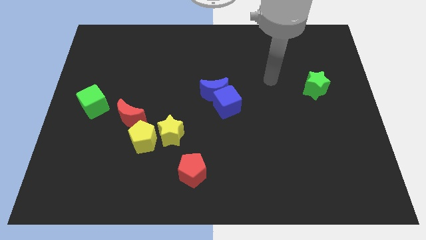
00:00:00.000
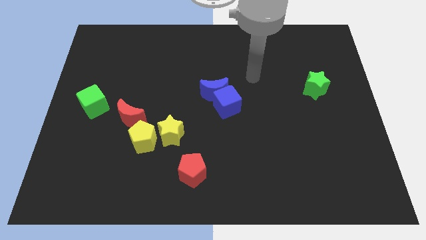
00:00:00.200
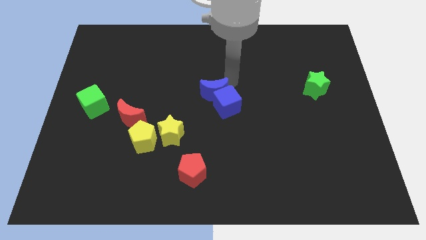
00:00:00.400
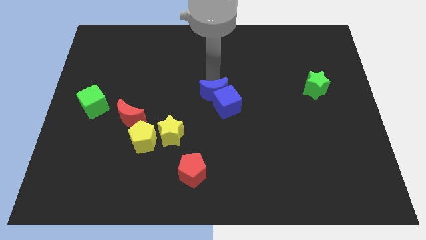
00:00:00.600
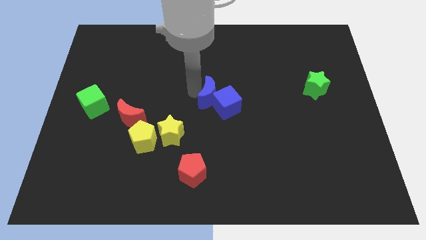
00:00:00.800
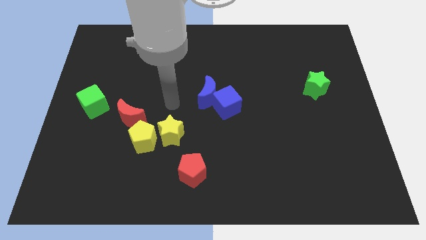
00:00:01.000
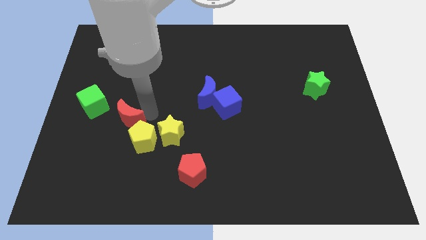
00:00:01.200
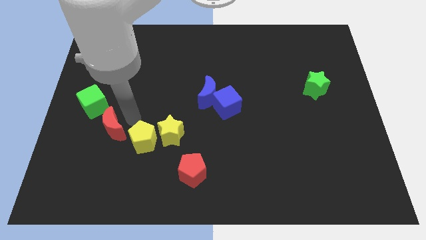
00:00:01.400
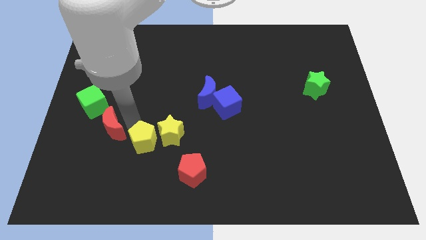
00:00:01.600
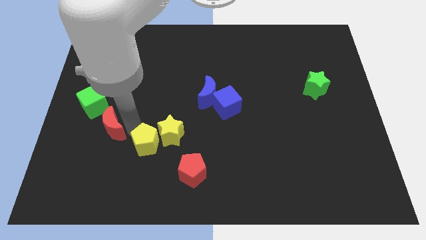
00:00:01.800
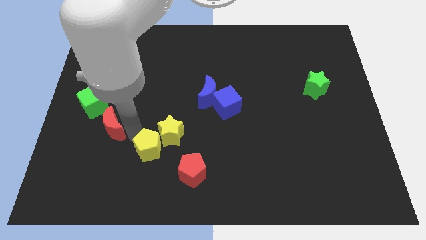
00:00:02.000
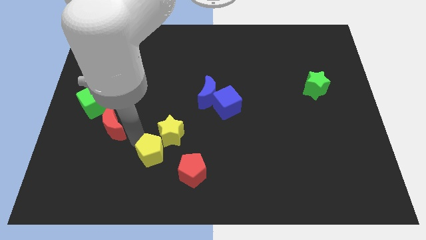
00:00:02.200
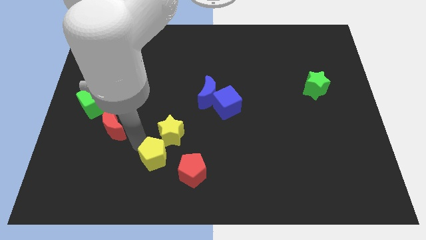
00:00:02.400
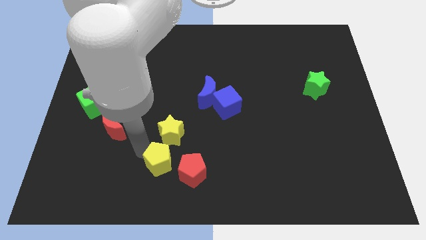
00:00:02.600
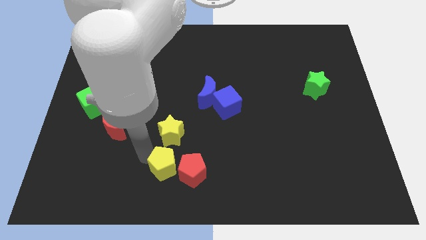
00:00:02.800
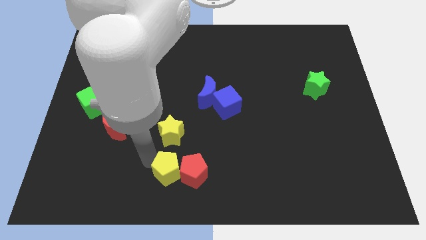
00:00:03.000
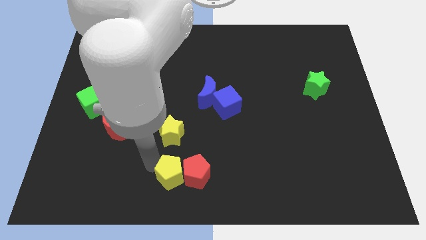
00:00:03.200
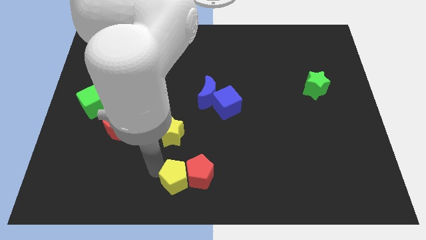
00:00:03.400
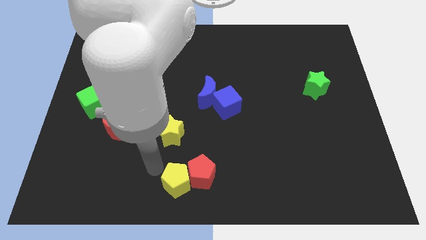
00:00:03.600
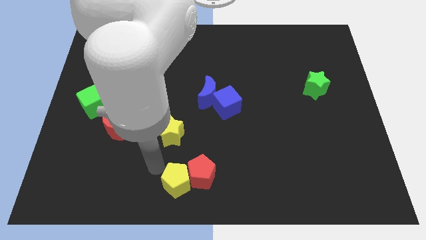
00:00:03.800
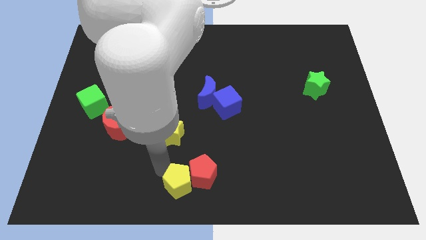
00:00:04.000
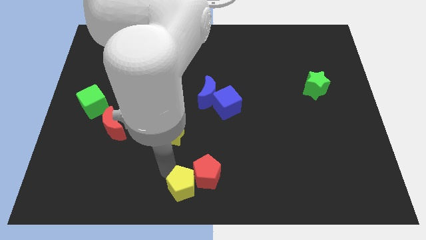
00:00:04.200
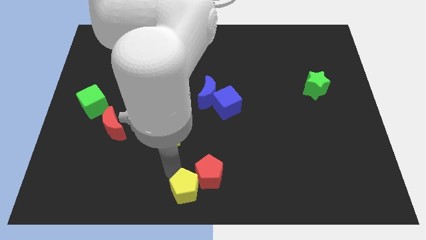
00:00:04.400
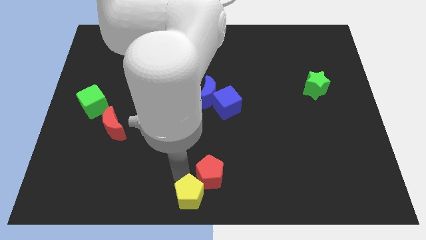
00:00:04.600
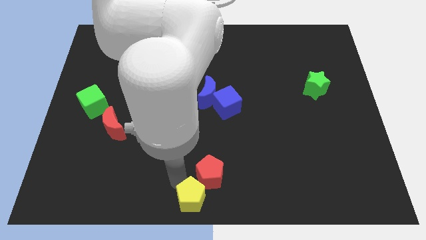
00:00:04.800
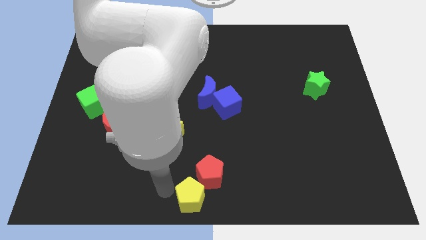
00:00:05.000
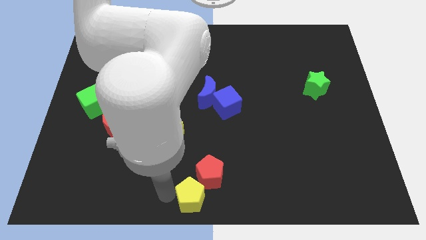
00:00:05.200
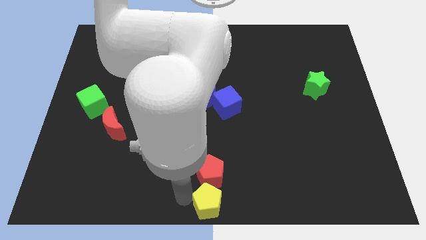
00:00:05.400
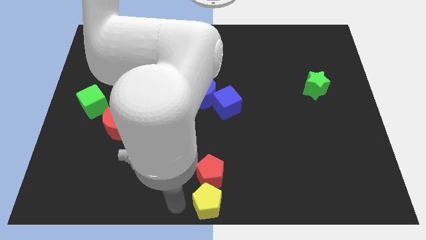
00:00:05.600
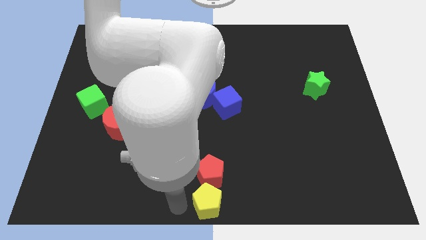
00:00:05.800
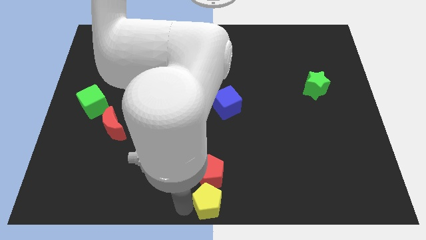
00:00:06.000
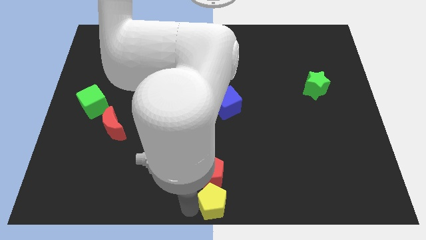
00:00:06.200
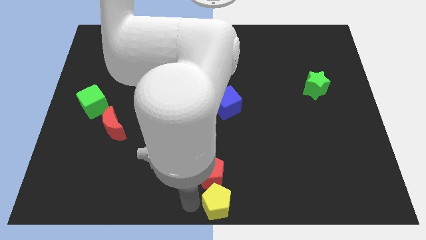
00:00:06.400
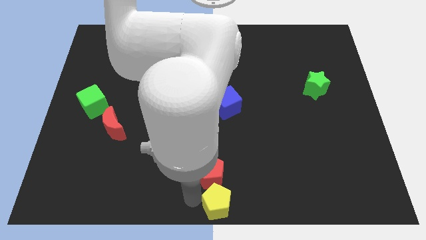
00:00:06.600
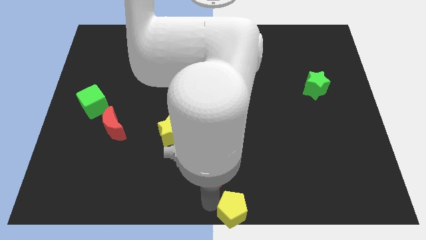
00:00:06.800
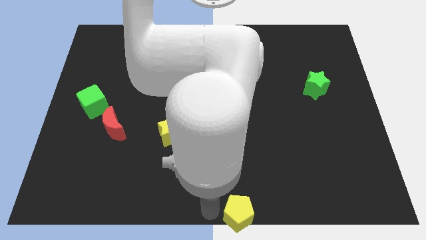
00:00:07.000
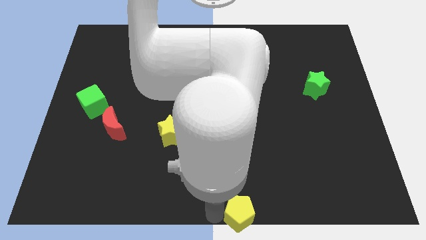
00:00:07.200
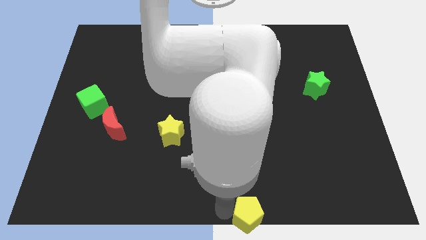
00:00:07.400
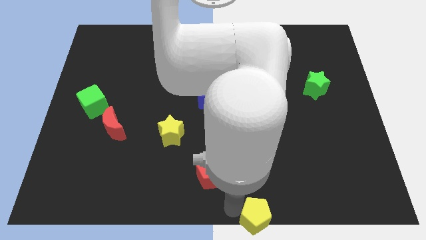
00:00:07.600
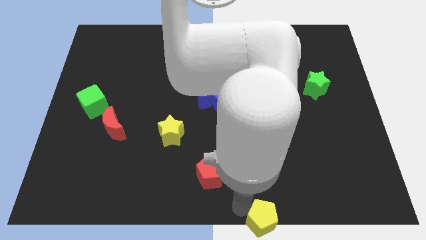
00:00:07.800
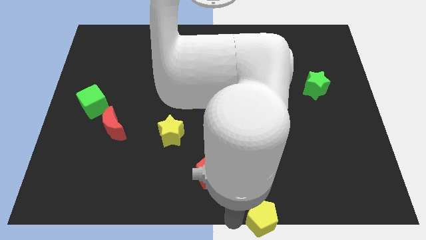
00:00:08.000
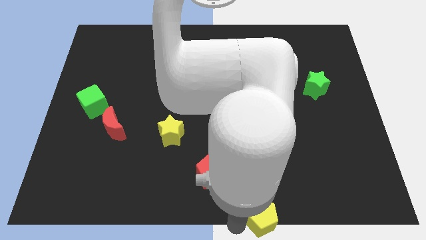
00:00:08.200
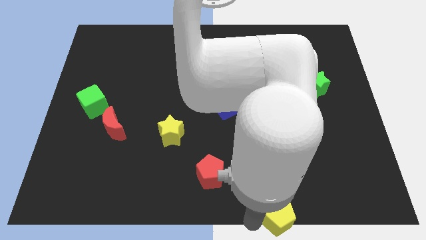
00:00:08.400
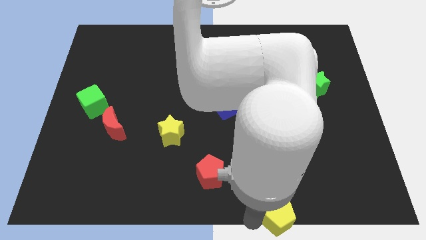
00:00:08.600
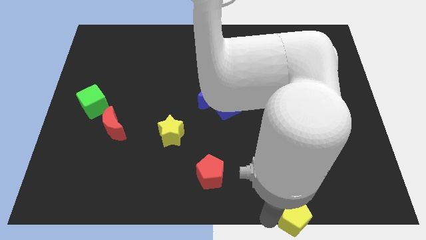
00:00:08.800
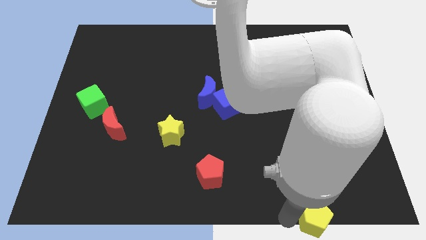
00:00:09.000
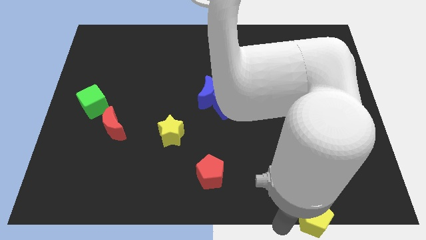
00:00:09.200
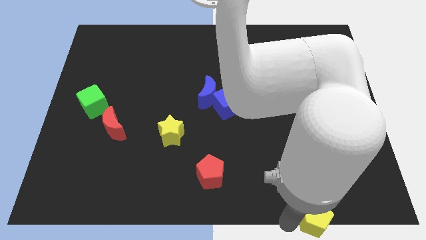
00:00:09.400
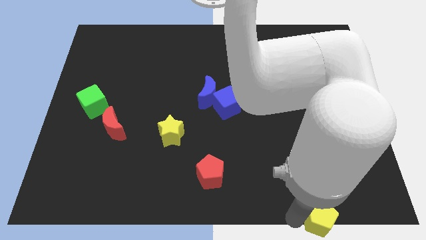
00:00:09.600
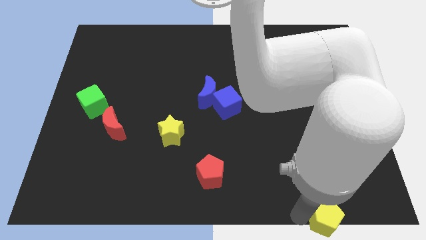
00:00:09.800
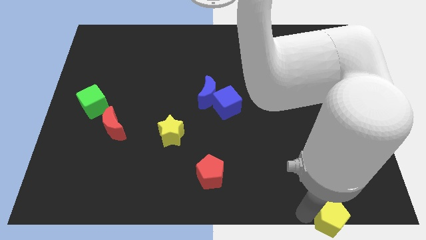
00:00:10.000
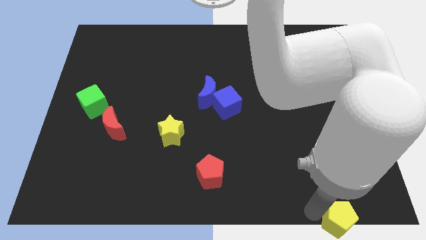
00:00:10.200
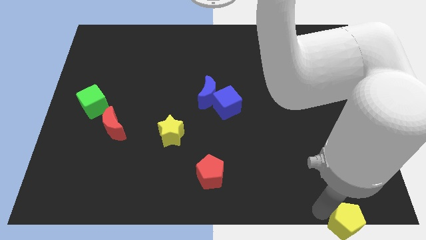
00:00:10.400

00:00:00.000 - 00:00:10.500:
move the yellow pentagon to the bottom right corner

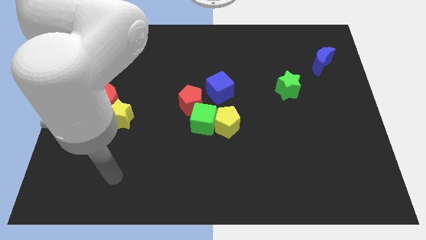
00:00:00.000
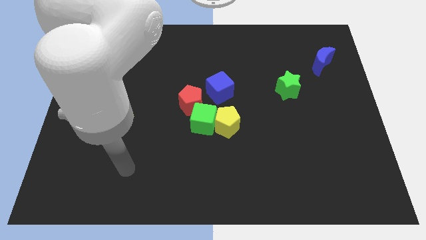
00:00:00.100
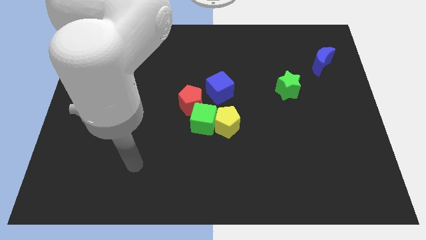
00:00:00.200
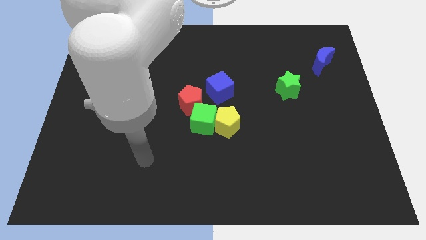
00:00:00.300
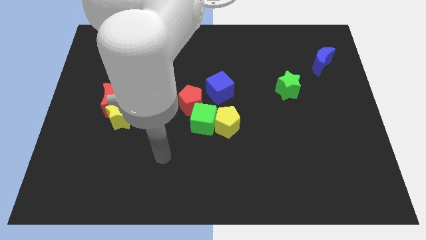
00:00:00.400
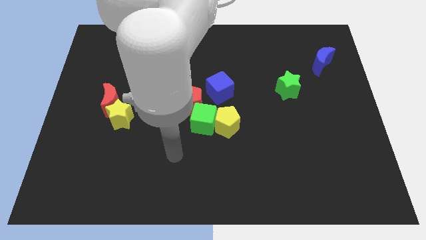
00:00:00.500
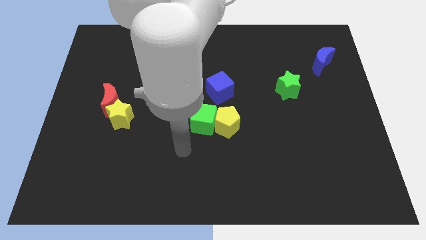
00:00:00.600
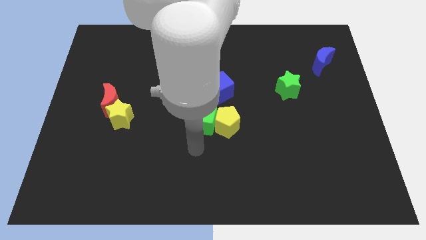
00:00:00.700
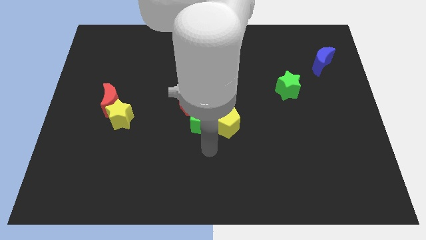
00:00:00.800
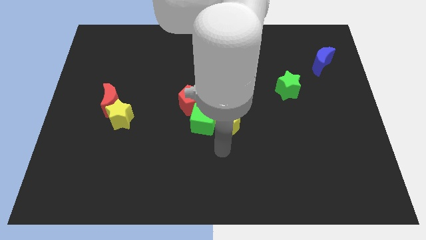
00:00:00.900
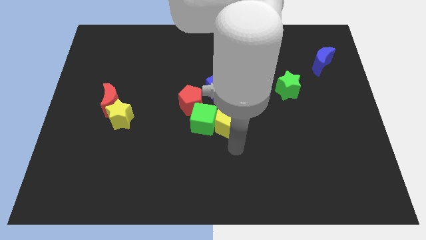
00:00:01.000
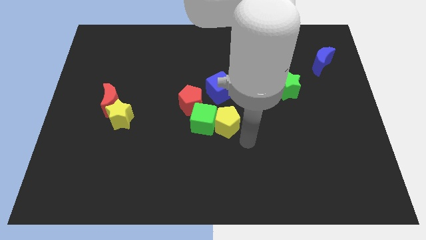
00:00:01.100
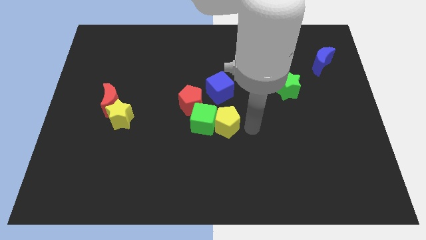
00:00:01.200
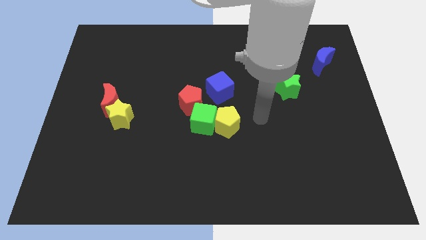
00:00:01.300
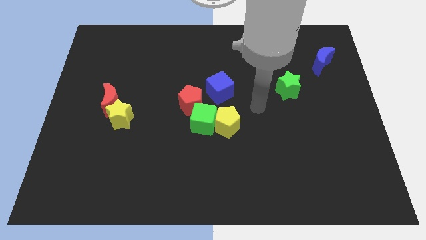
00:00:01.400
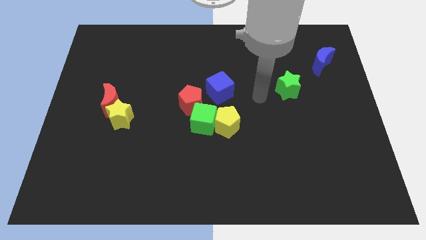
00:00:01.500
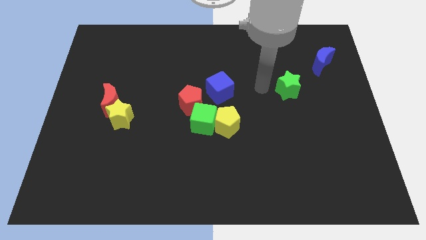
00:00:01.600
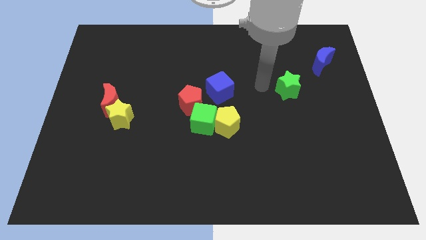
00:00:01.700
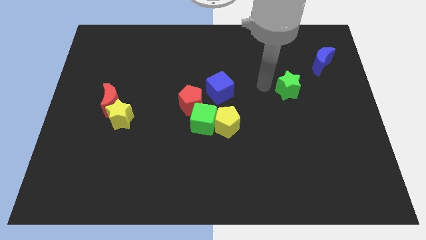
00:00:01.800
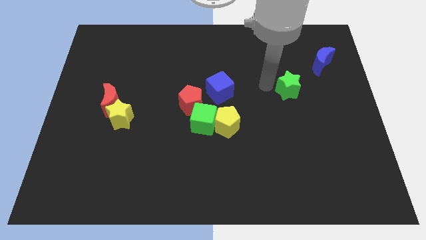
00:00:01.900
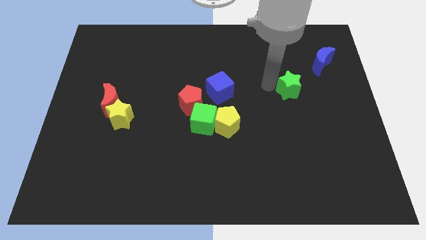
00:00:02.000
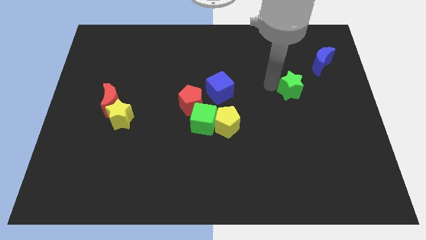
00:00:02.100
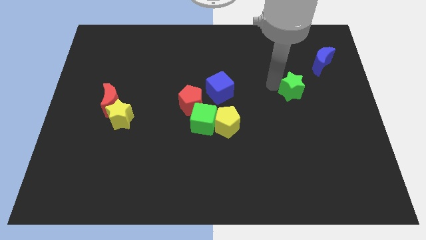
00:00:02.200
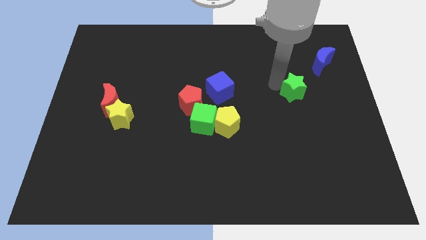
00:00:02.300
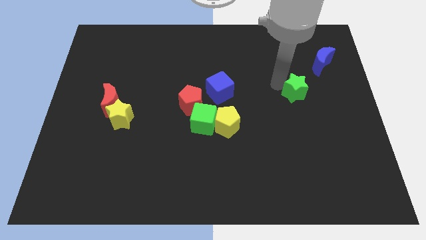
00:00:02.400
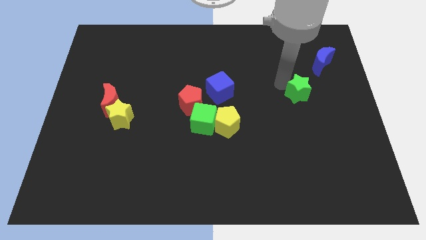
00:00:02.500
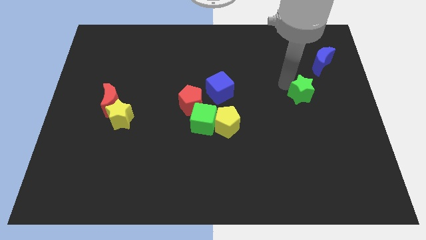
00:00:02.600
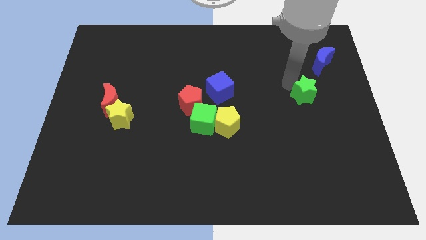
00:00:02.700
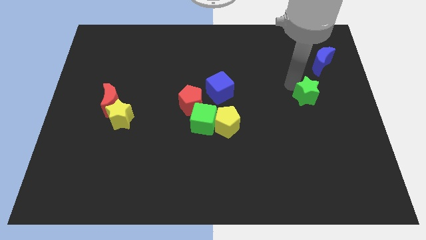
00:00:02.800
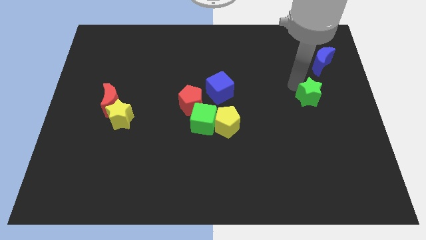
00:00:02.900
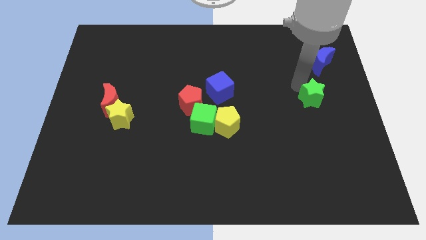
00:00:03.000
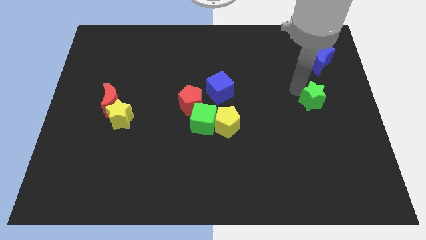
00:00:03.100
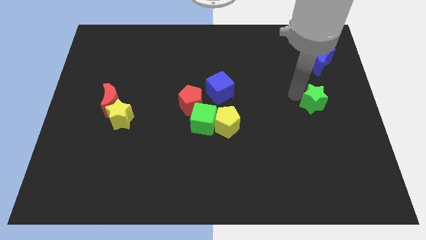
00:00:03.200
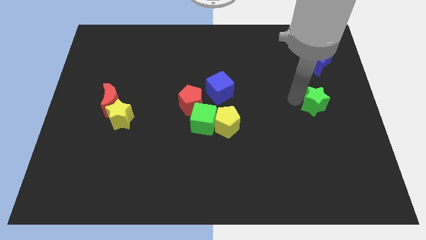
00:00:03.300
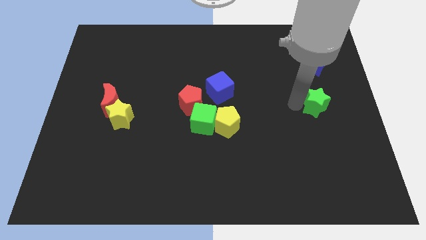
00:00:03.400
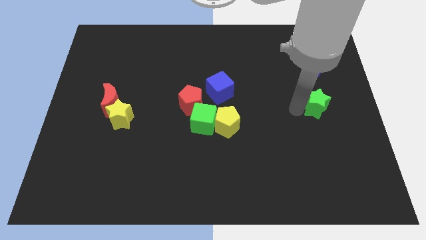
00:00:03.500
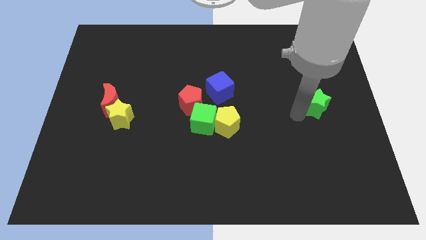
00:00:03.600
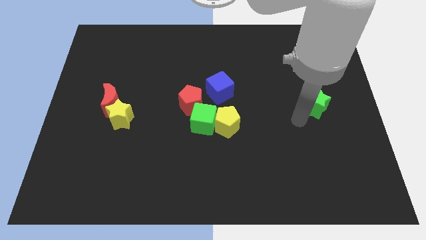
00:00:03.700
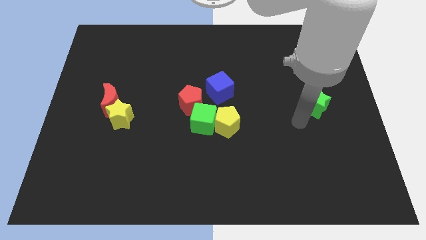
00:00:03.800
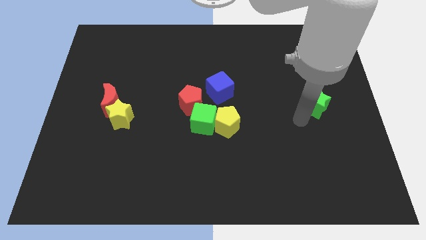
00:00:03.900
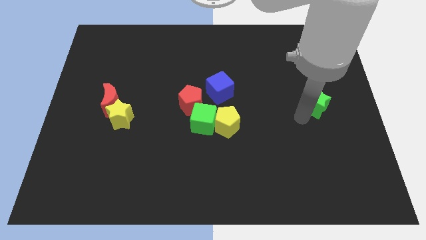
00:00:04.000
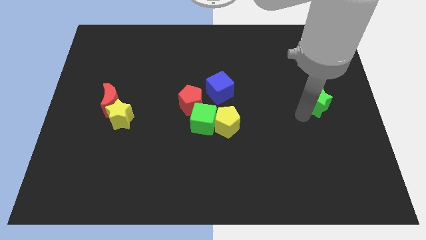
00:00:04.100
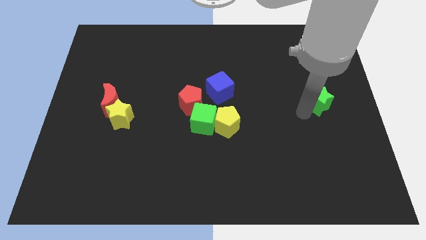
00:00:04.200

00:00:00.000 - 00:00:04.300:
move the green star to the right side of the board
